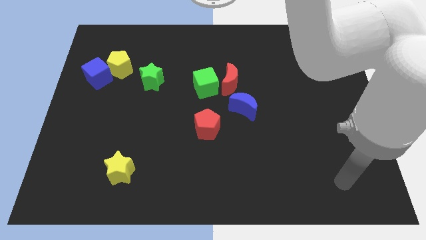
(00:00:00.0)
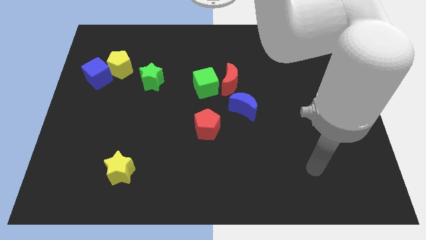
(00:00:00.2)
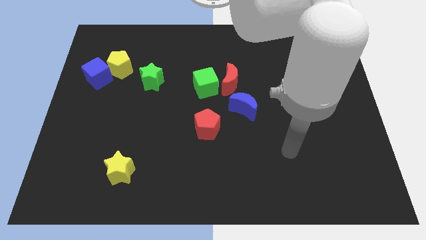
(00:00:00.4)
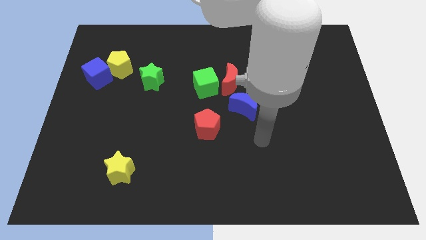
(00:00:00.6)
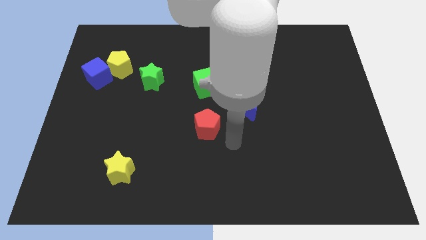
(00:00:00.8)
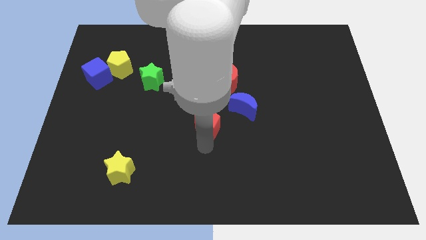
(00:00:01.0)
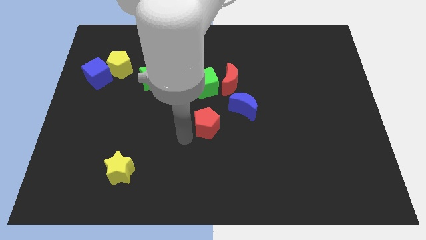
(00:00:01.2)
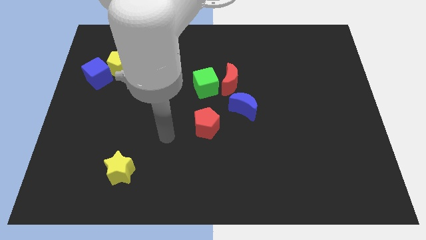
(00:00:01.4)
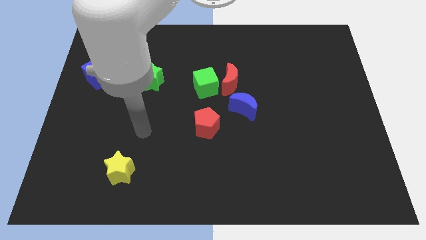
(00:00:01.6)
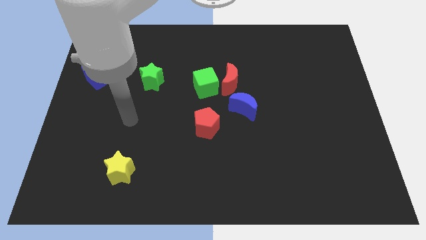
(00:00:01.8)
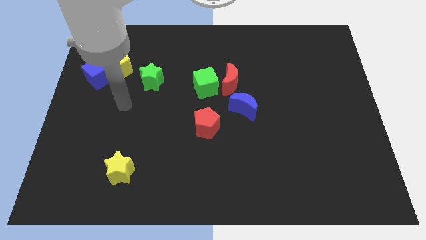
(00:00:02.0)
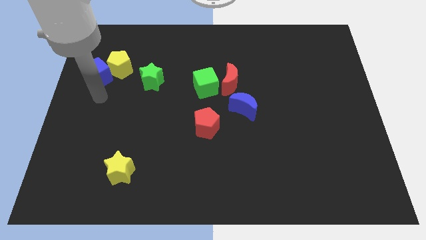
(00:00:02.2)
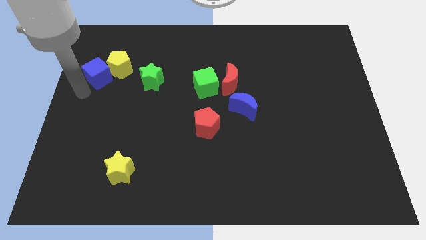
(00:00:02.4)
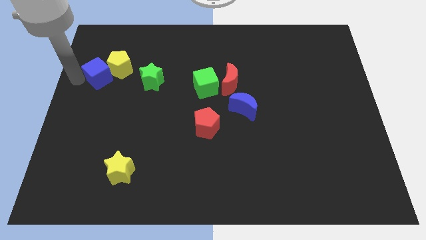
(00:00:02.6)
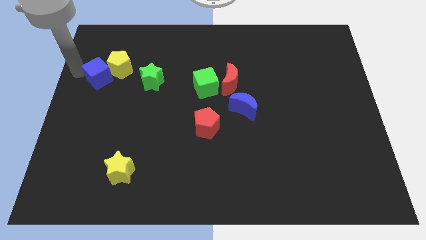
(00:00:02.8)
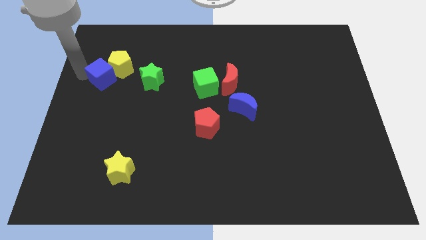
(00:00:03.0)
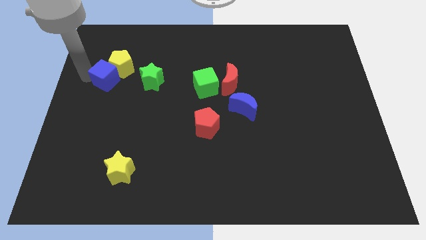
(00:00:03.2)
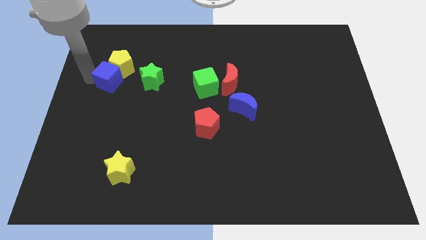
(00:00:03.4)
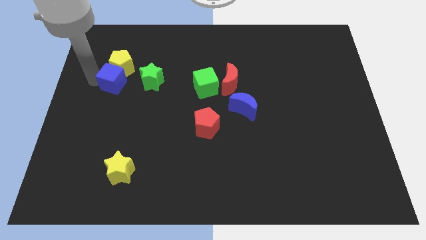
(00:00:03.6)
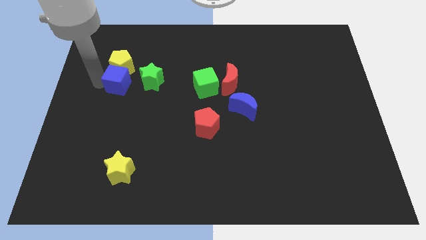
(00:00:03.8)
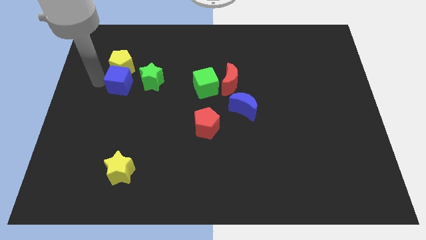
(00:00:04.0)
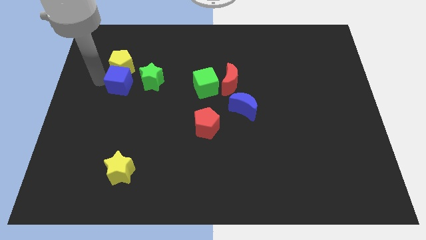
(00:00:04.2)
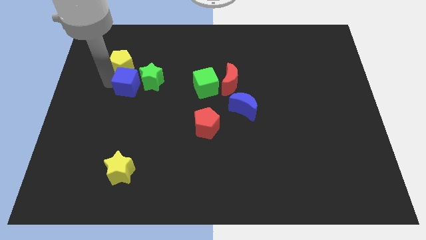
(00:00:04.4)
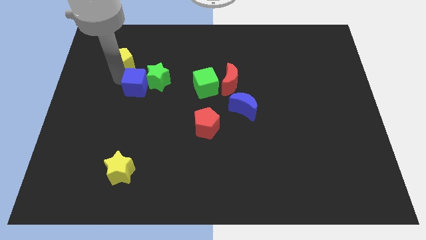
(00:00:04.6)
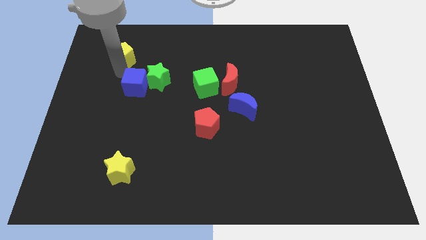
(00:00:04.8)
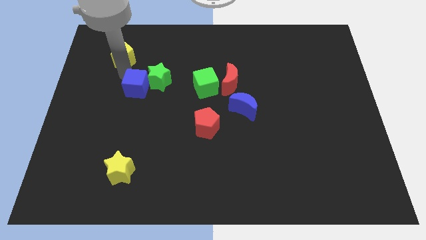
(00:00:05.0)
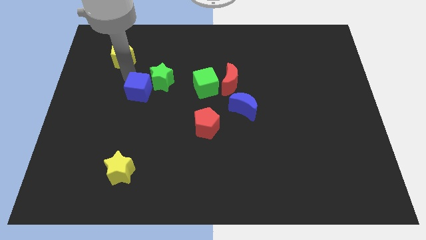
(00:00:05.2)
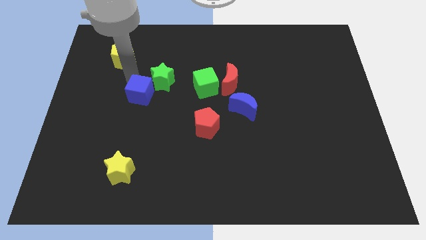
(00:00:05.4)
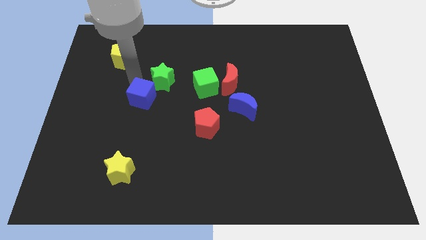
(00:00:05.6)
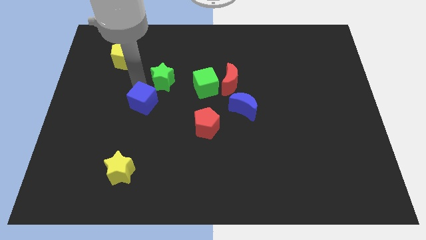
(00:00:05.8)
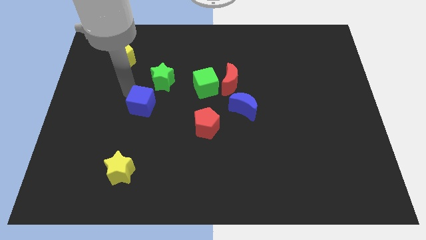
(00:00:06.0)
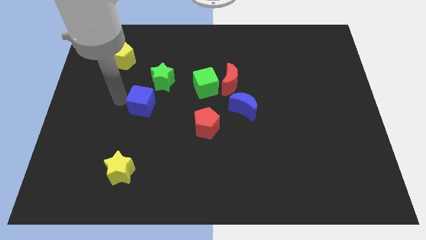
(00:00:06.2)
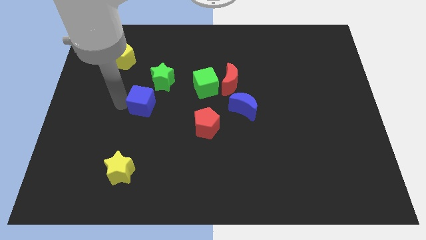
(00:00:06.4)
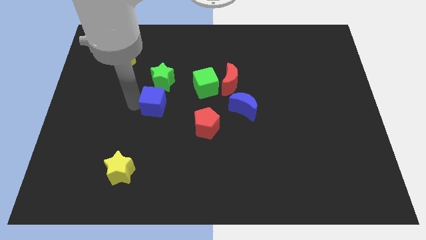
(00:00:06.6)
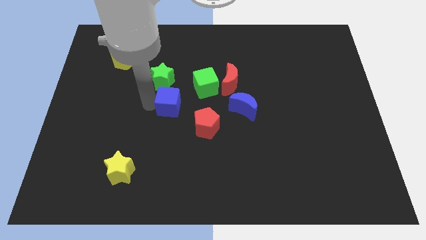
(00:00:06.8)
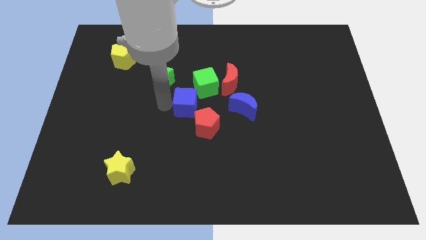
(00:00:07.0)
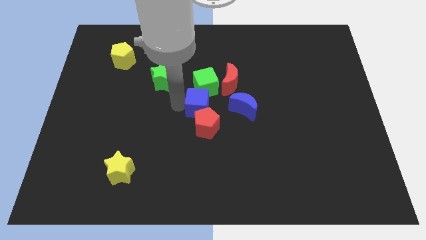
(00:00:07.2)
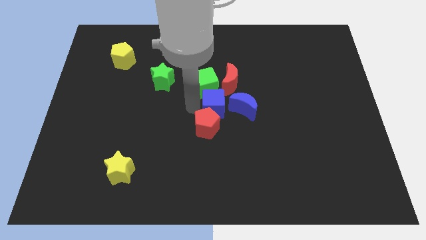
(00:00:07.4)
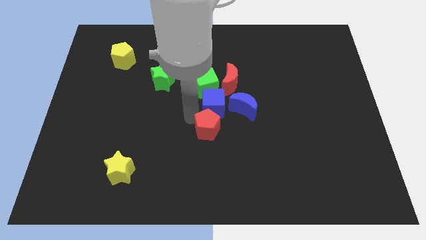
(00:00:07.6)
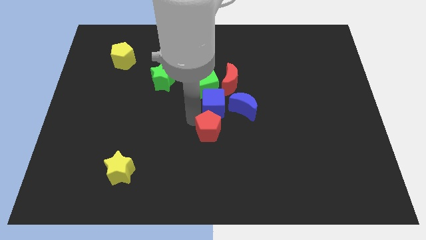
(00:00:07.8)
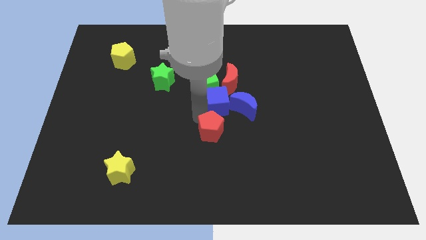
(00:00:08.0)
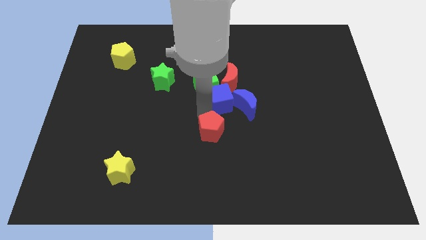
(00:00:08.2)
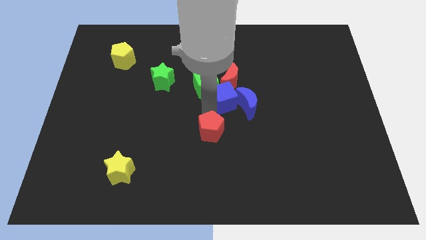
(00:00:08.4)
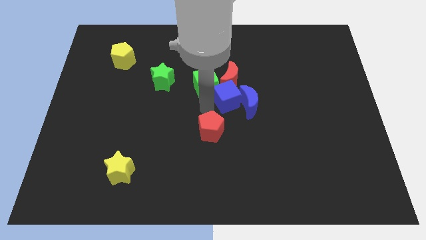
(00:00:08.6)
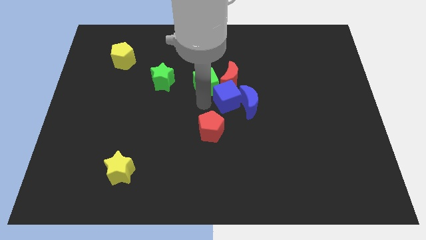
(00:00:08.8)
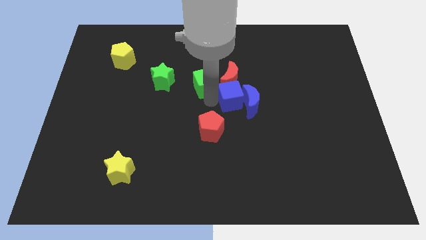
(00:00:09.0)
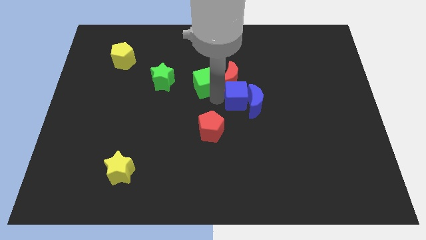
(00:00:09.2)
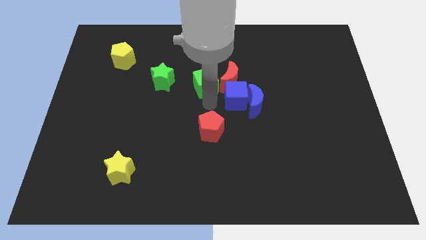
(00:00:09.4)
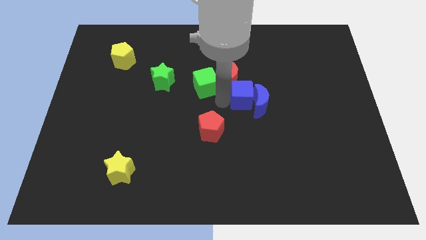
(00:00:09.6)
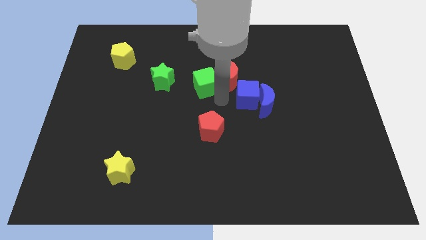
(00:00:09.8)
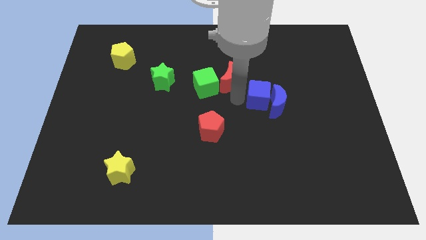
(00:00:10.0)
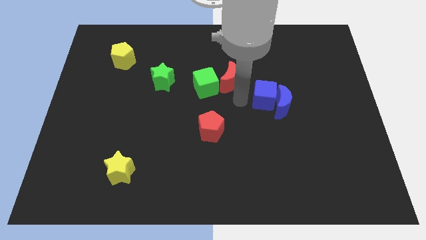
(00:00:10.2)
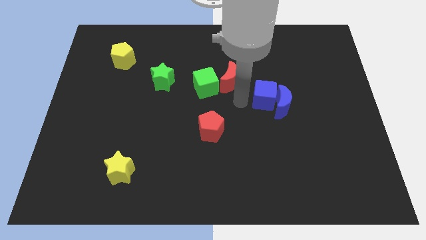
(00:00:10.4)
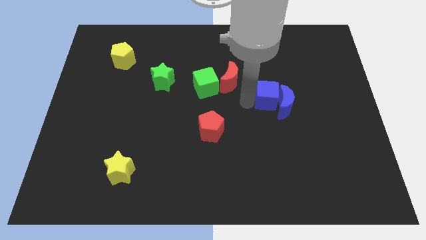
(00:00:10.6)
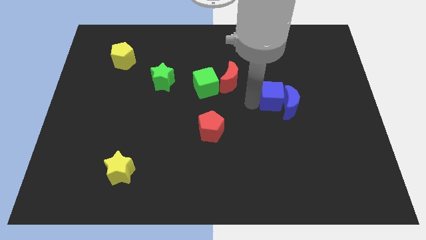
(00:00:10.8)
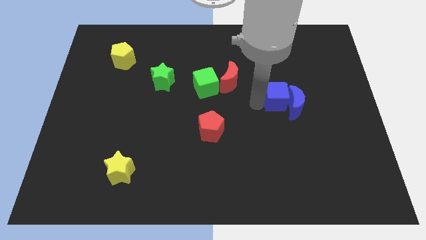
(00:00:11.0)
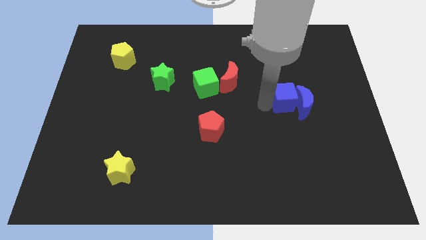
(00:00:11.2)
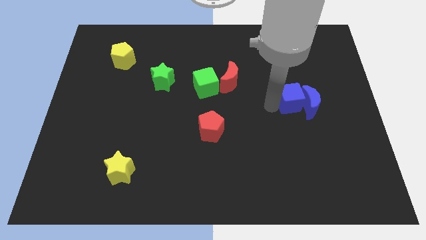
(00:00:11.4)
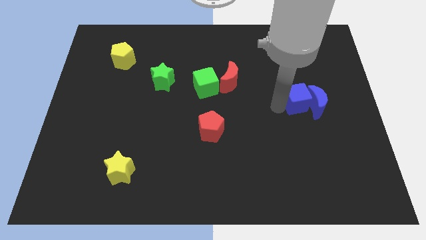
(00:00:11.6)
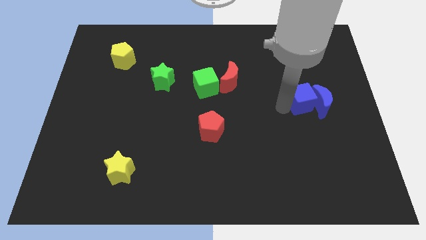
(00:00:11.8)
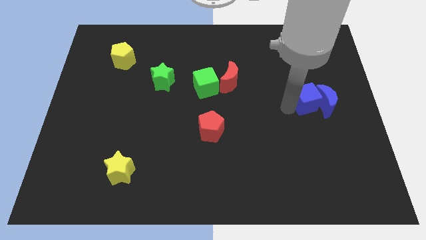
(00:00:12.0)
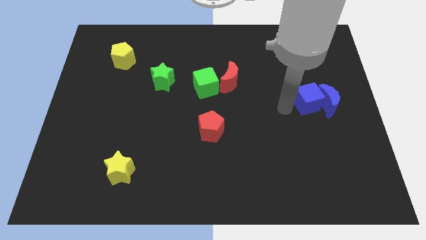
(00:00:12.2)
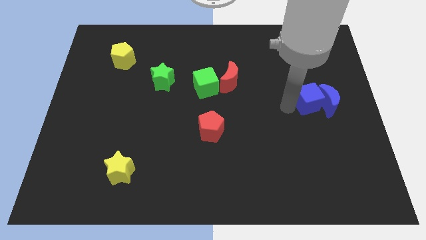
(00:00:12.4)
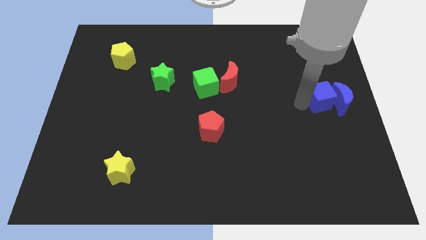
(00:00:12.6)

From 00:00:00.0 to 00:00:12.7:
put the blue cube to the right side of the board
